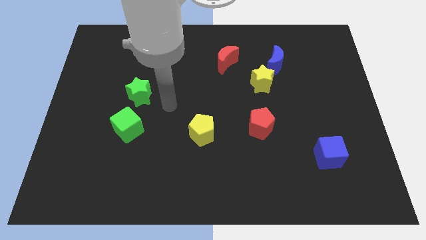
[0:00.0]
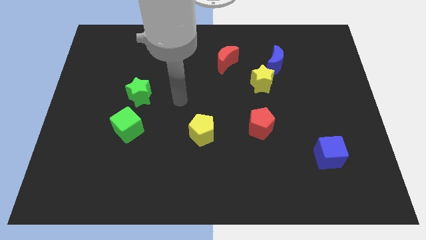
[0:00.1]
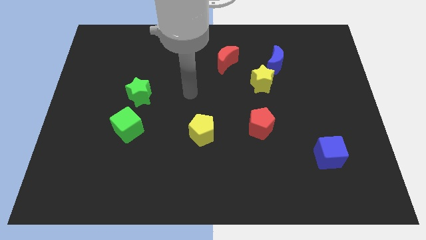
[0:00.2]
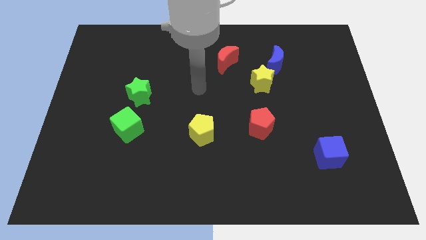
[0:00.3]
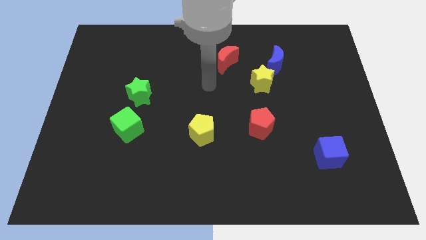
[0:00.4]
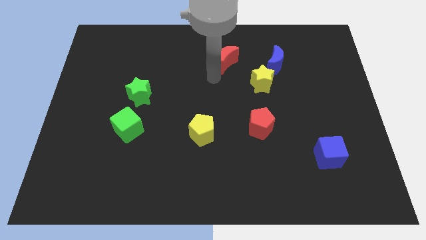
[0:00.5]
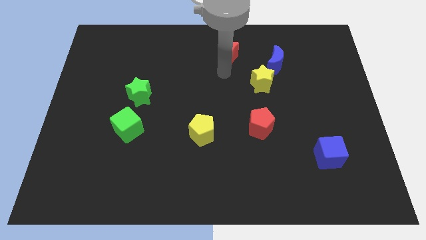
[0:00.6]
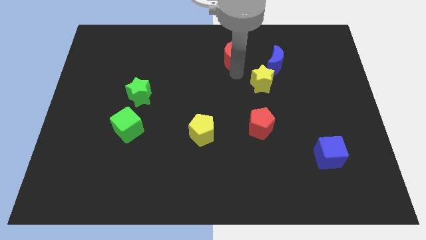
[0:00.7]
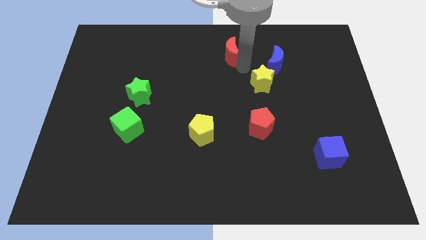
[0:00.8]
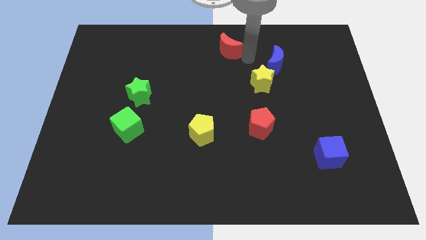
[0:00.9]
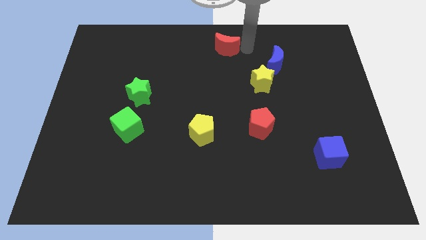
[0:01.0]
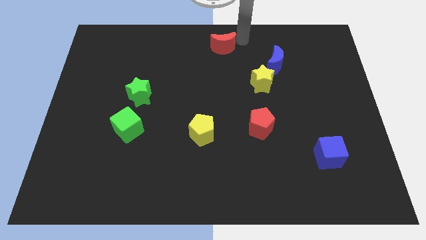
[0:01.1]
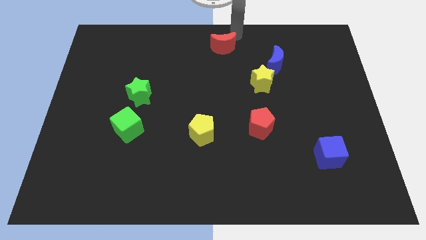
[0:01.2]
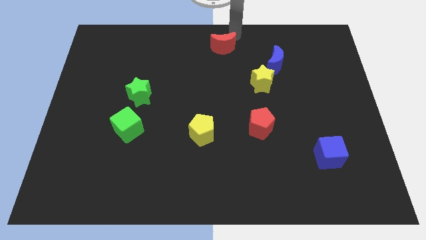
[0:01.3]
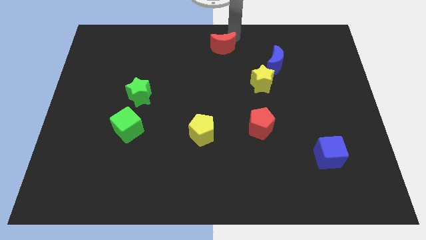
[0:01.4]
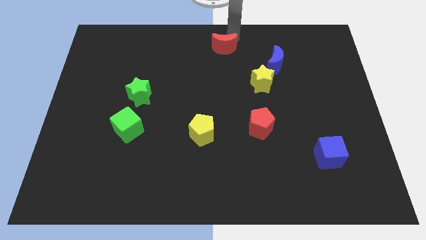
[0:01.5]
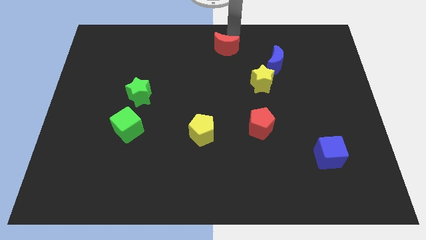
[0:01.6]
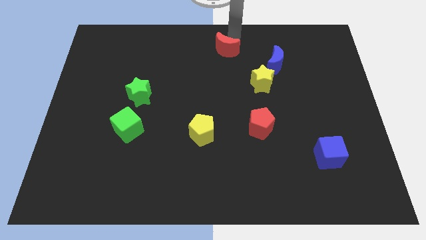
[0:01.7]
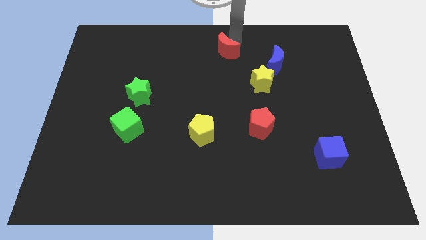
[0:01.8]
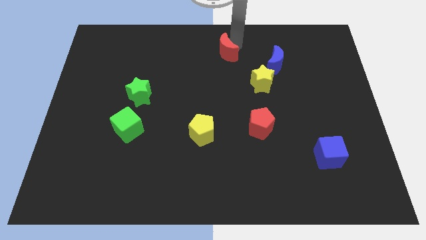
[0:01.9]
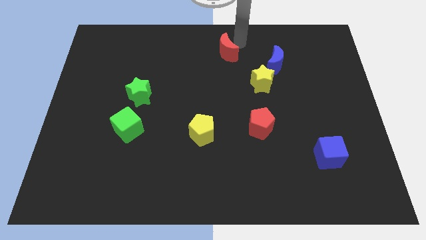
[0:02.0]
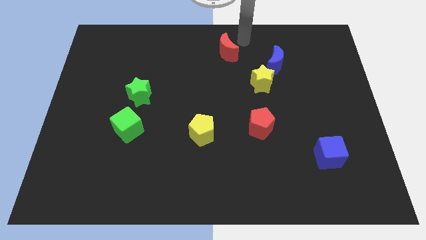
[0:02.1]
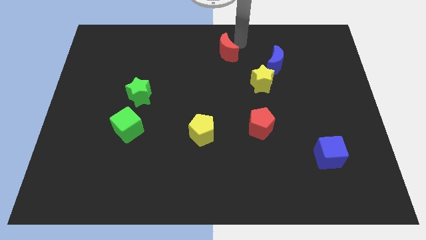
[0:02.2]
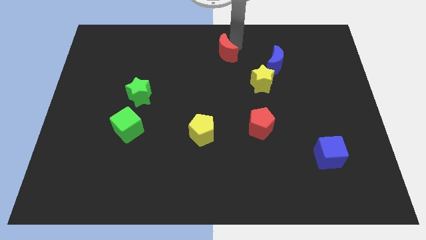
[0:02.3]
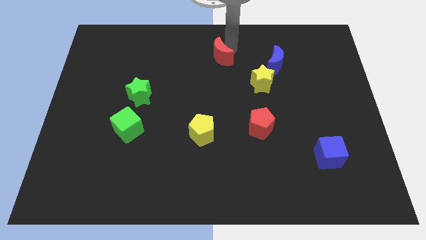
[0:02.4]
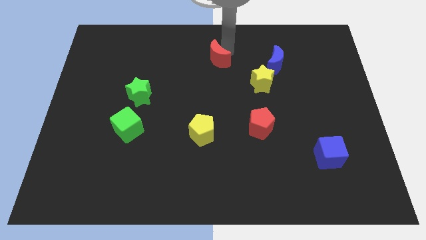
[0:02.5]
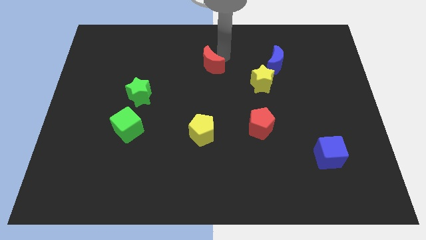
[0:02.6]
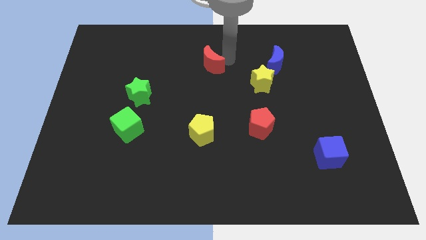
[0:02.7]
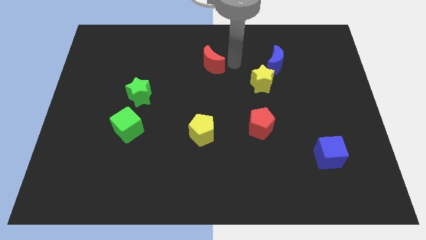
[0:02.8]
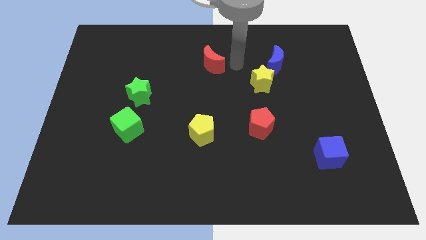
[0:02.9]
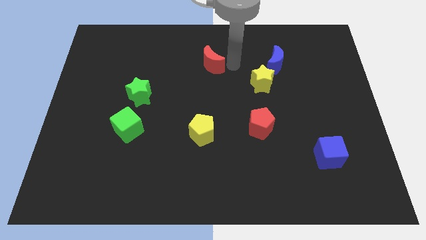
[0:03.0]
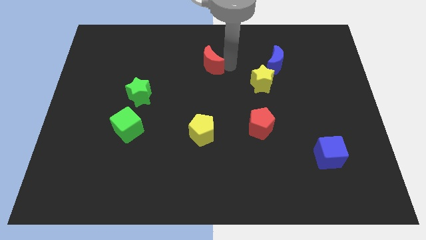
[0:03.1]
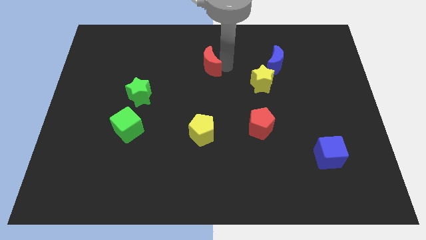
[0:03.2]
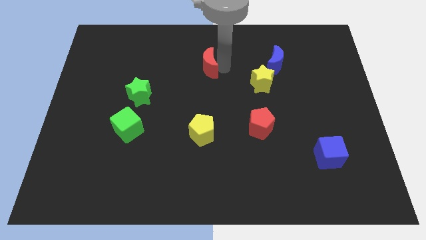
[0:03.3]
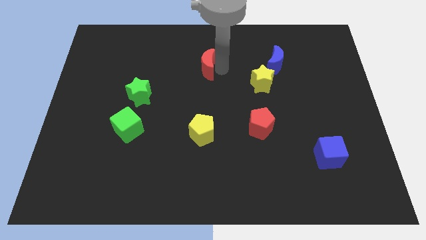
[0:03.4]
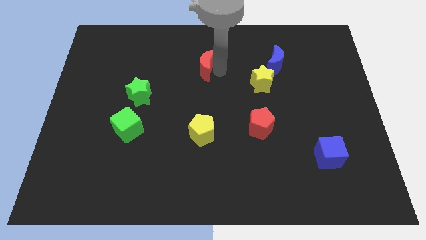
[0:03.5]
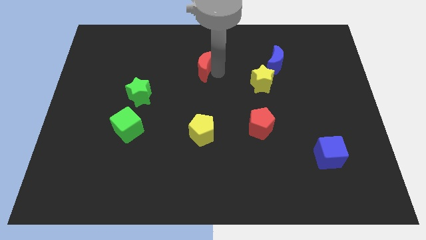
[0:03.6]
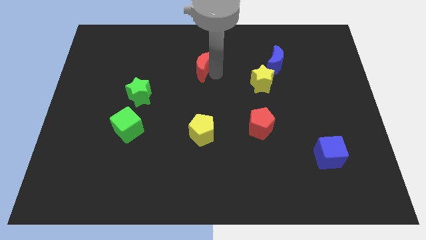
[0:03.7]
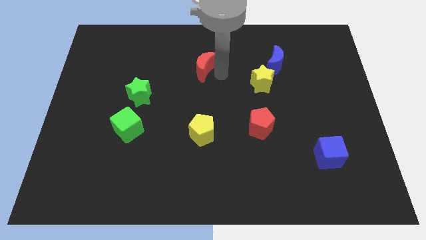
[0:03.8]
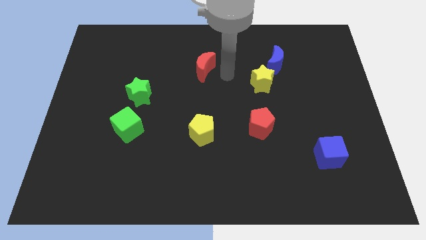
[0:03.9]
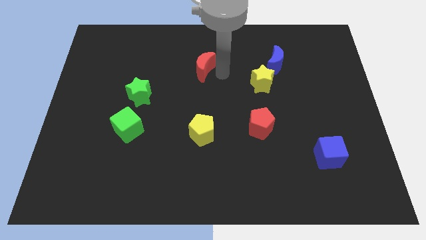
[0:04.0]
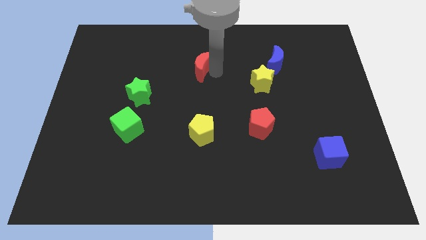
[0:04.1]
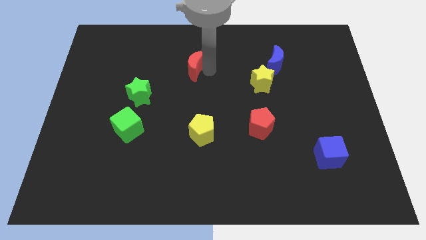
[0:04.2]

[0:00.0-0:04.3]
push the red moon a little bit to the left

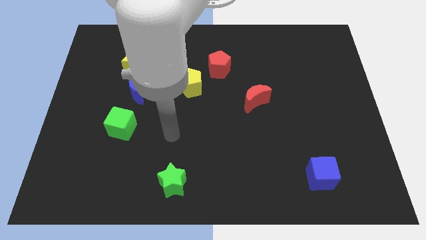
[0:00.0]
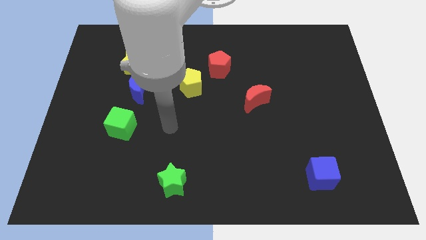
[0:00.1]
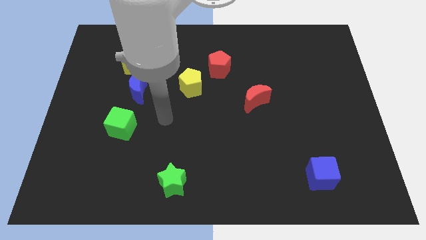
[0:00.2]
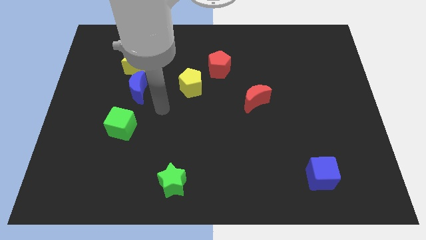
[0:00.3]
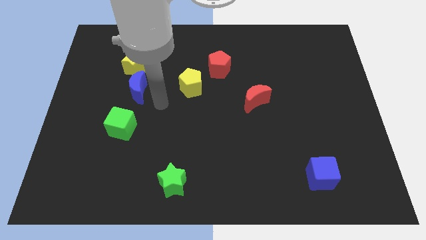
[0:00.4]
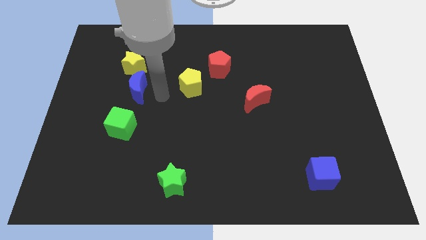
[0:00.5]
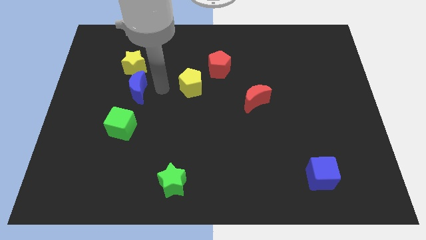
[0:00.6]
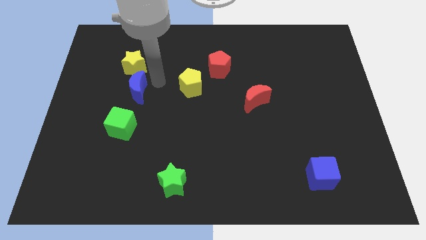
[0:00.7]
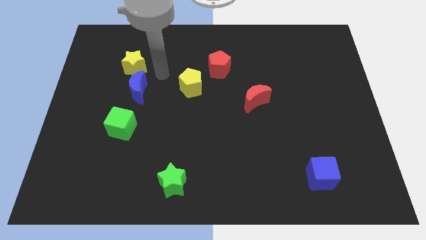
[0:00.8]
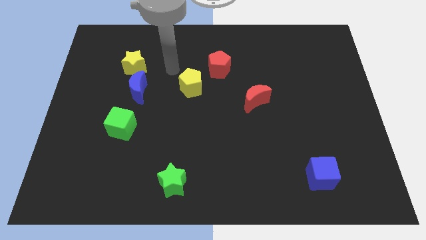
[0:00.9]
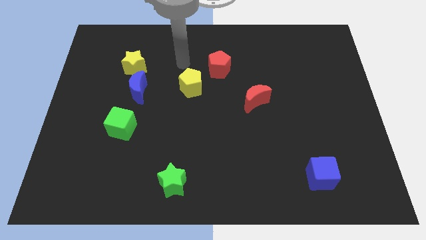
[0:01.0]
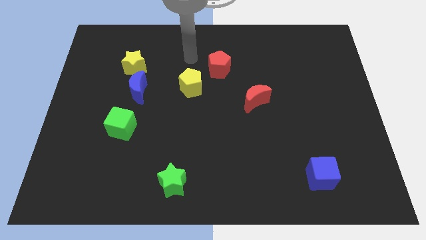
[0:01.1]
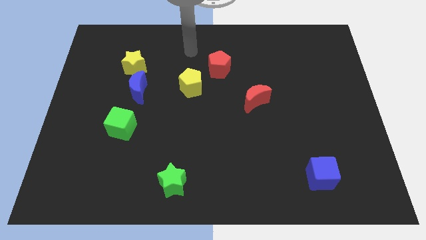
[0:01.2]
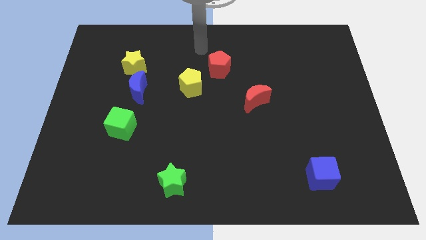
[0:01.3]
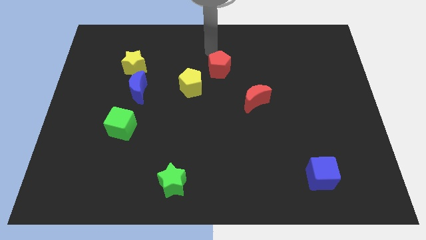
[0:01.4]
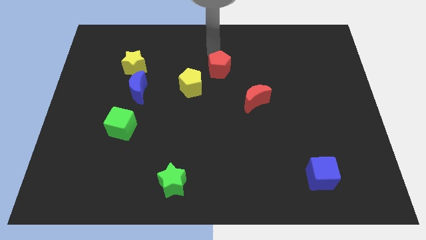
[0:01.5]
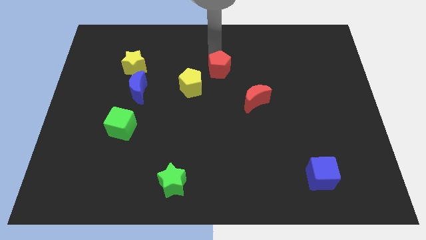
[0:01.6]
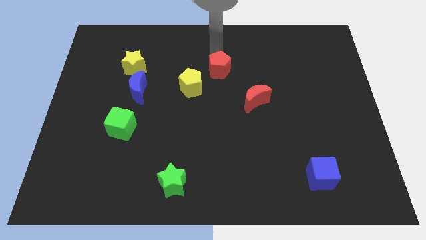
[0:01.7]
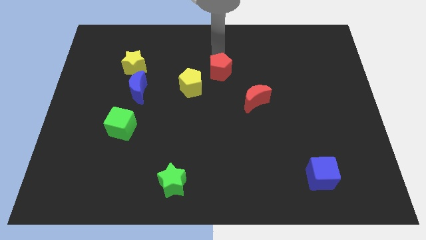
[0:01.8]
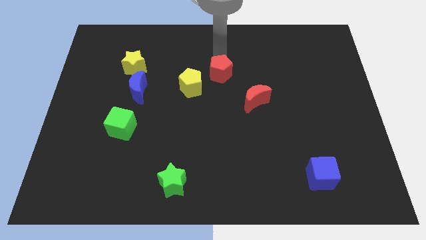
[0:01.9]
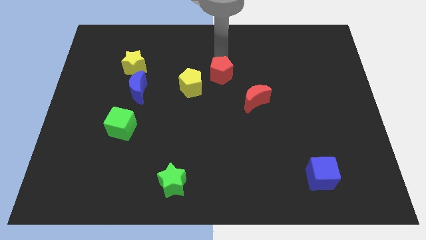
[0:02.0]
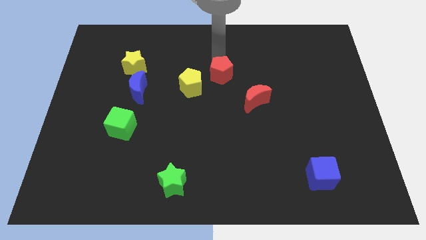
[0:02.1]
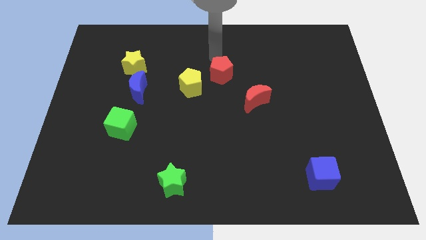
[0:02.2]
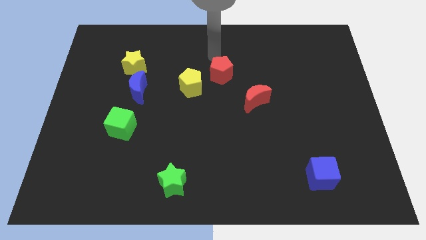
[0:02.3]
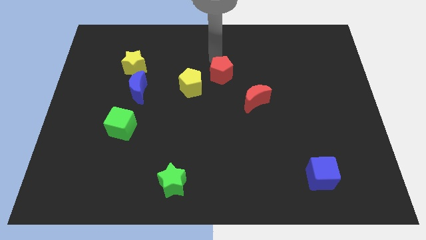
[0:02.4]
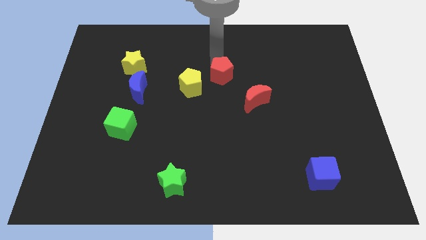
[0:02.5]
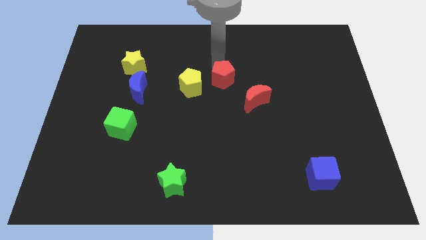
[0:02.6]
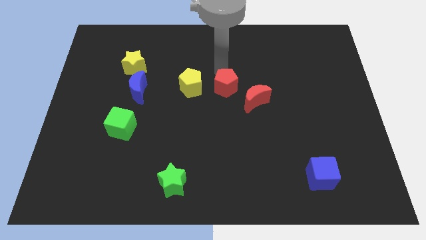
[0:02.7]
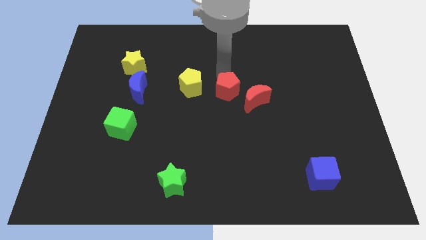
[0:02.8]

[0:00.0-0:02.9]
move the red pentagon down slightly

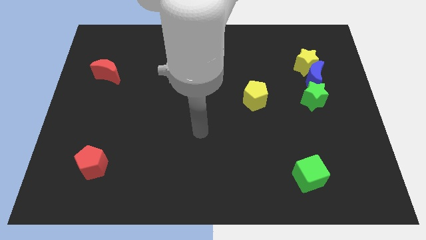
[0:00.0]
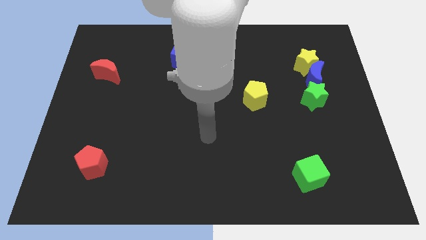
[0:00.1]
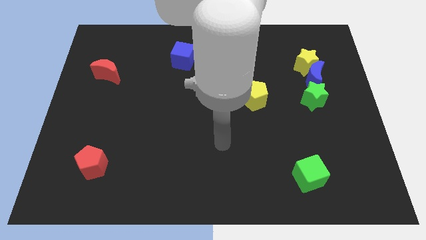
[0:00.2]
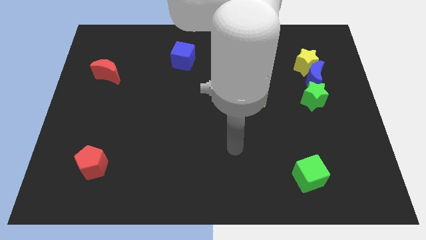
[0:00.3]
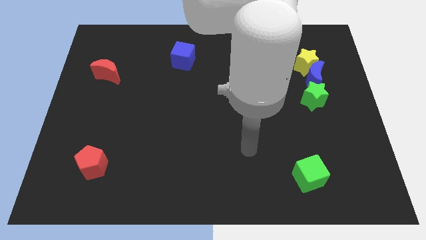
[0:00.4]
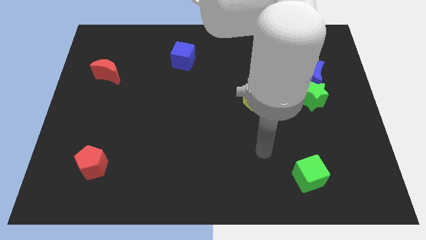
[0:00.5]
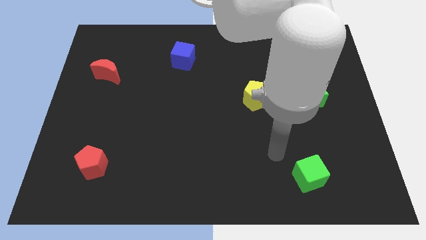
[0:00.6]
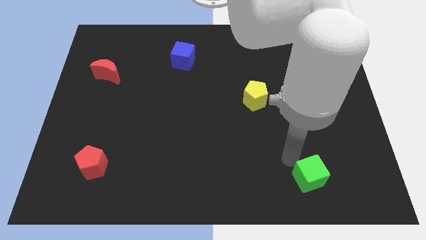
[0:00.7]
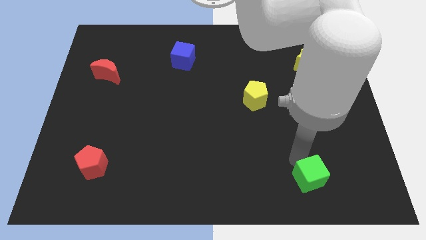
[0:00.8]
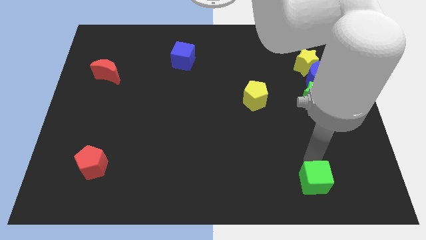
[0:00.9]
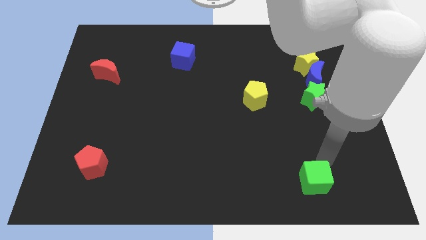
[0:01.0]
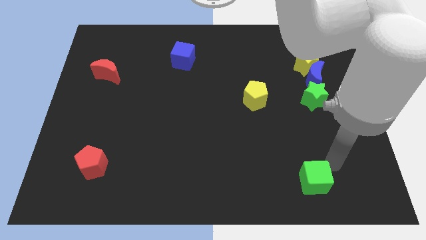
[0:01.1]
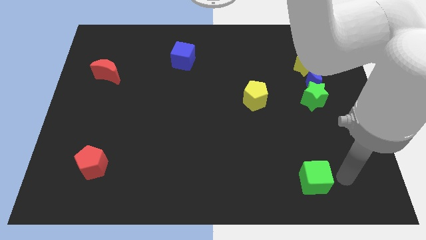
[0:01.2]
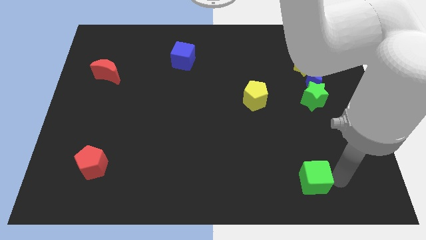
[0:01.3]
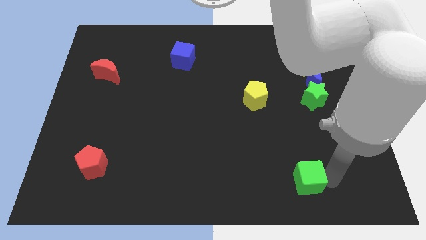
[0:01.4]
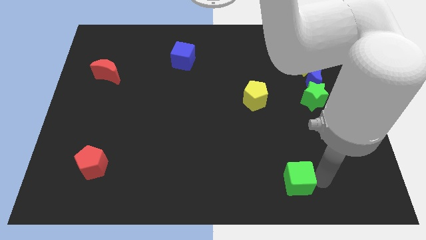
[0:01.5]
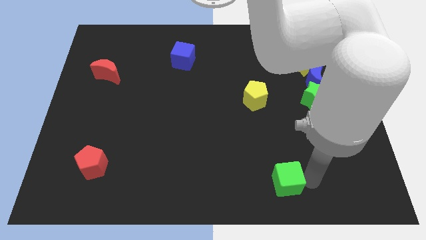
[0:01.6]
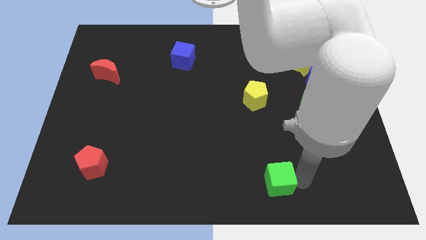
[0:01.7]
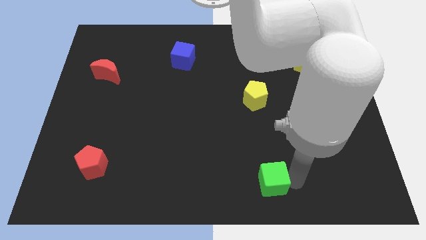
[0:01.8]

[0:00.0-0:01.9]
move the green cube to the left a little
